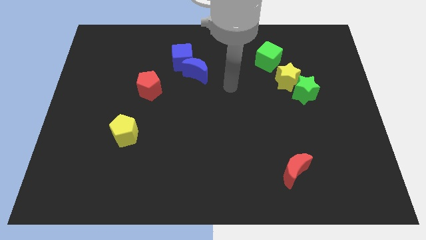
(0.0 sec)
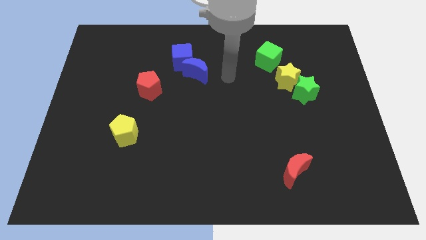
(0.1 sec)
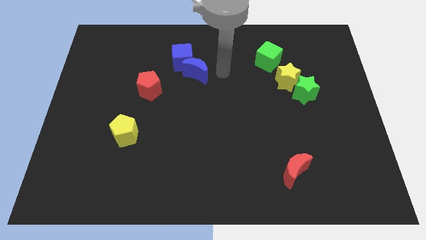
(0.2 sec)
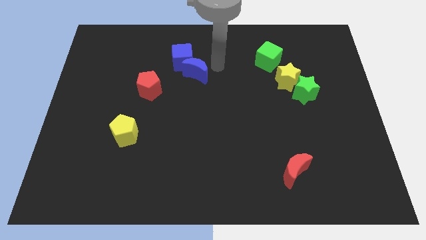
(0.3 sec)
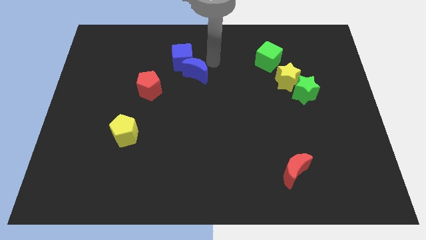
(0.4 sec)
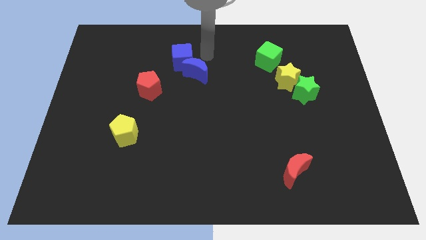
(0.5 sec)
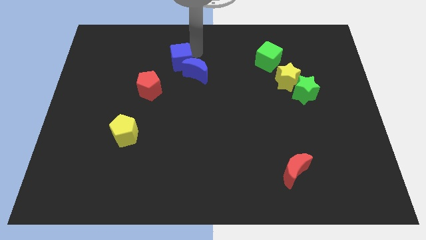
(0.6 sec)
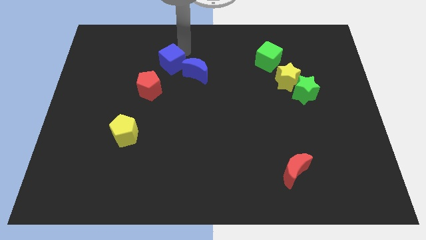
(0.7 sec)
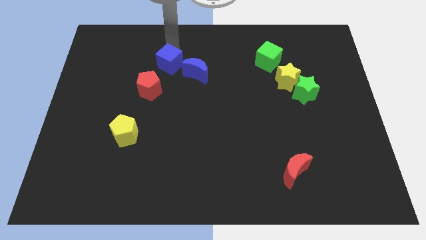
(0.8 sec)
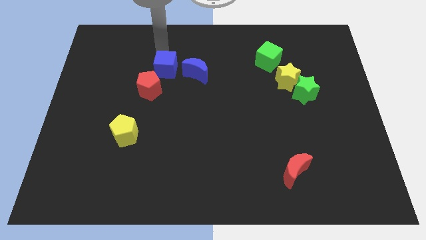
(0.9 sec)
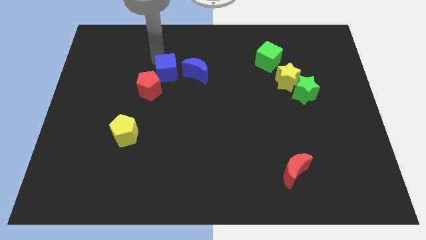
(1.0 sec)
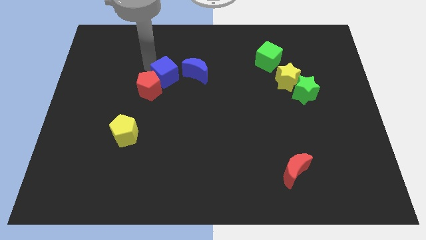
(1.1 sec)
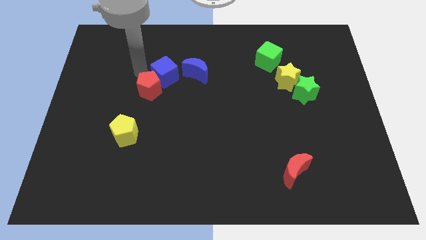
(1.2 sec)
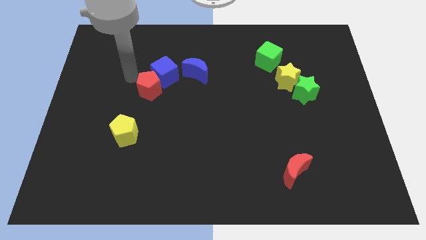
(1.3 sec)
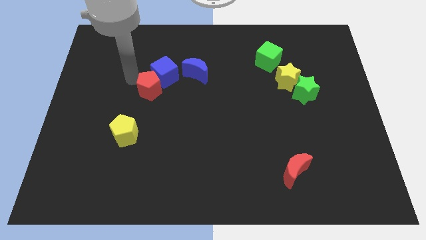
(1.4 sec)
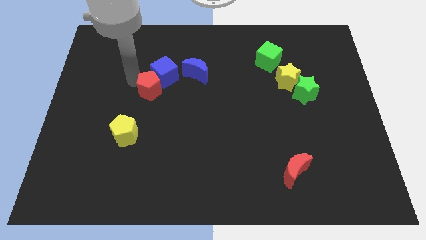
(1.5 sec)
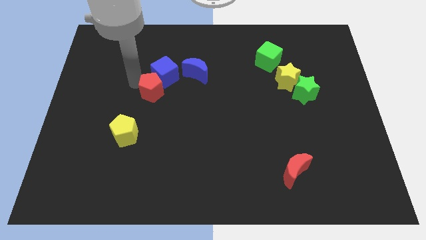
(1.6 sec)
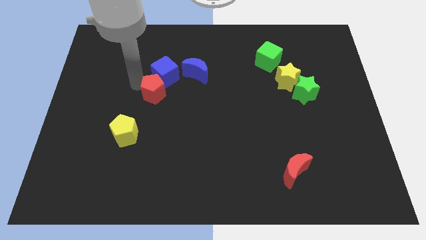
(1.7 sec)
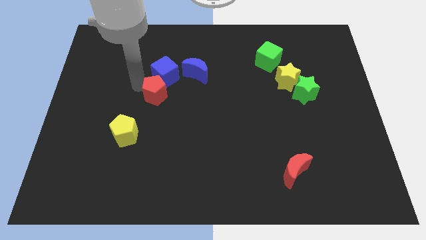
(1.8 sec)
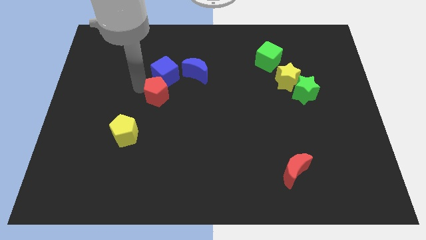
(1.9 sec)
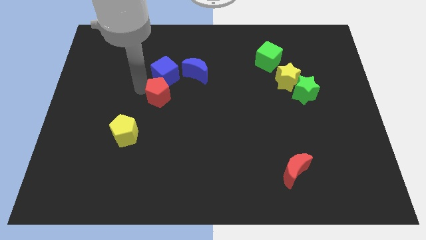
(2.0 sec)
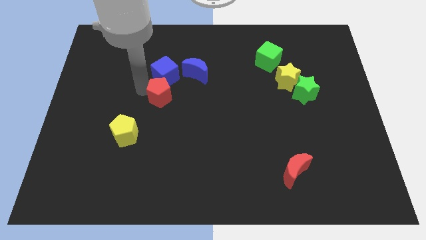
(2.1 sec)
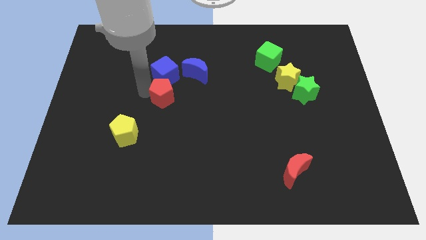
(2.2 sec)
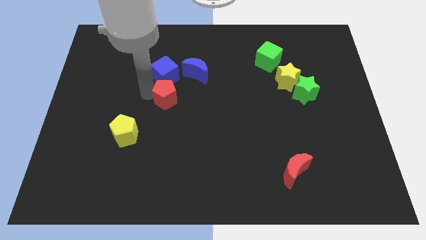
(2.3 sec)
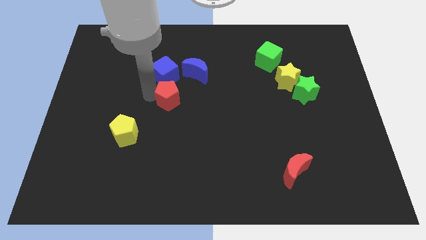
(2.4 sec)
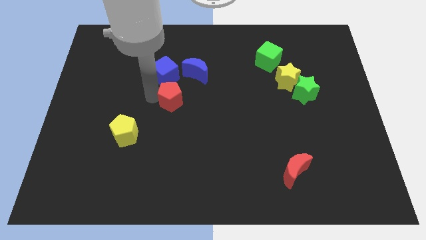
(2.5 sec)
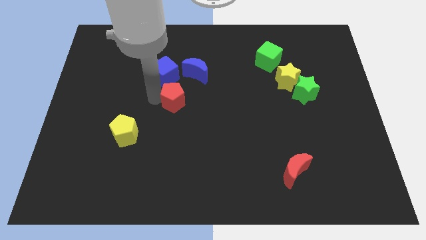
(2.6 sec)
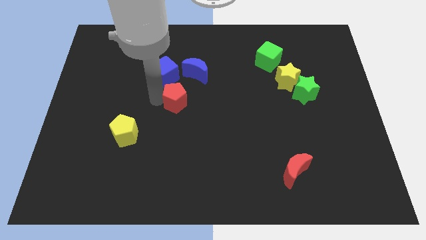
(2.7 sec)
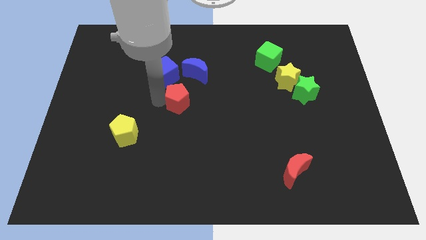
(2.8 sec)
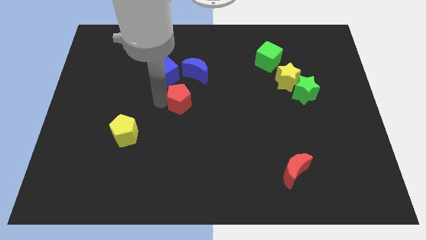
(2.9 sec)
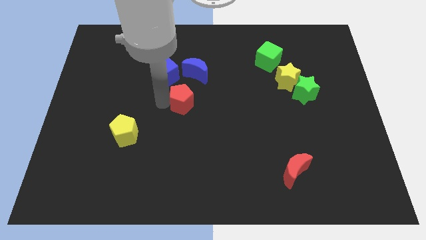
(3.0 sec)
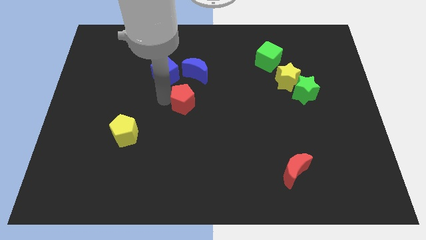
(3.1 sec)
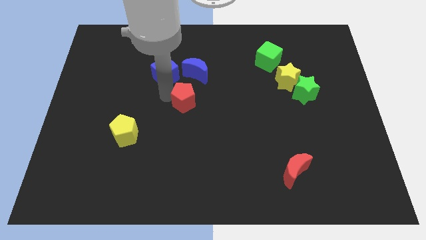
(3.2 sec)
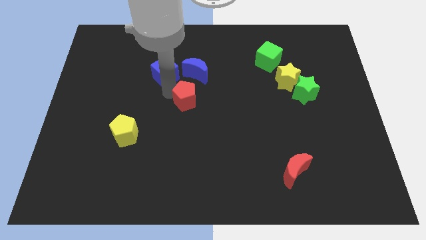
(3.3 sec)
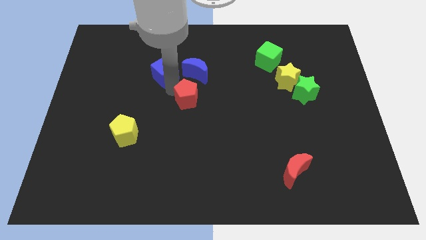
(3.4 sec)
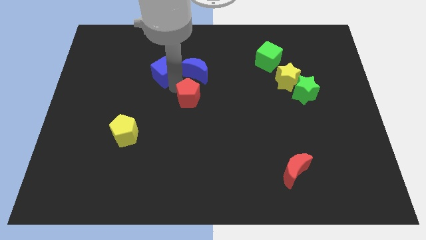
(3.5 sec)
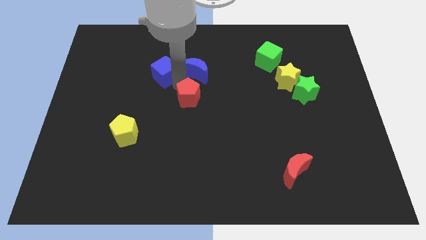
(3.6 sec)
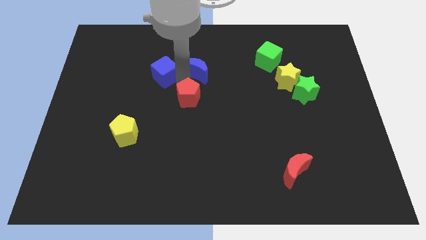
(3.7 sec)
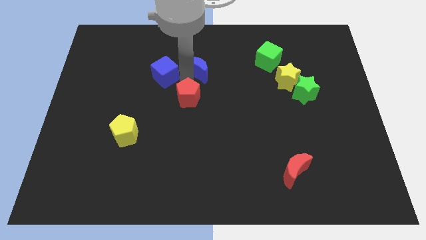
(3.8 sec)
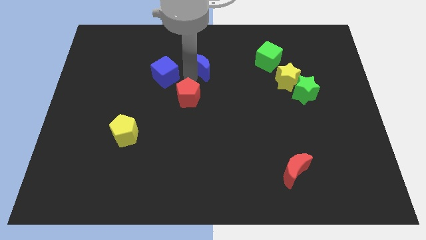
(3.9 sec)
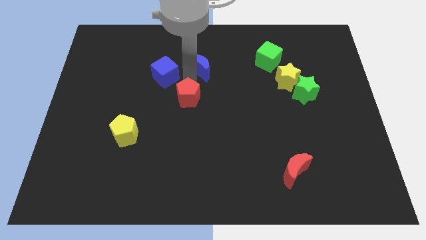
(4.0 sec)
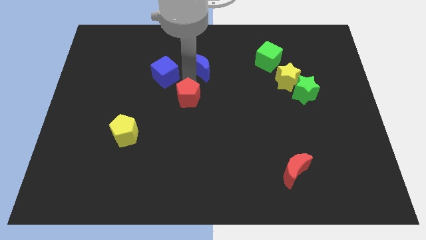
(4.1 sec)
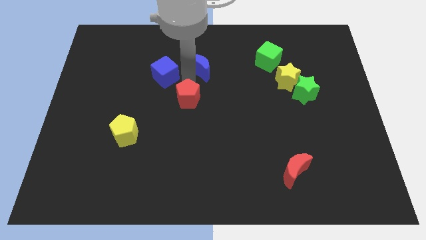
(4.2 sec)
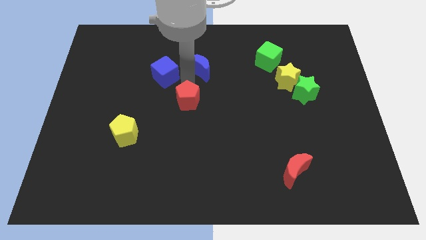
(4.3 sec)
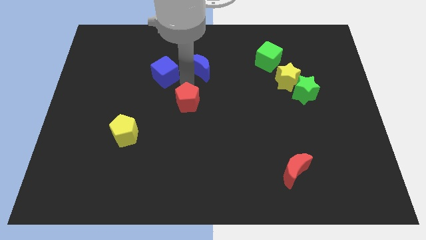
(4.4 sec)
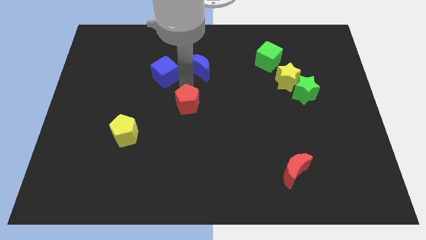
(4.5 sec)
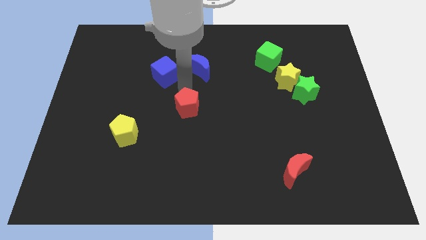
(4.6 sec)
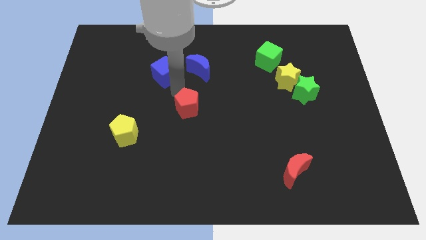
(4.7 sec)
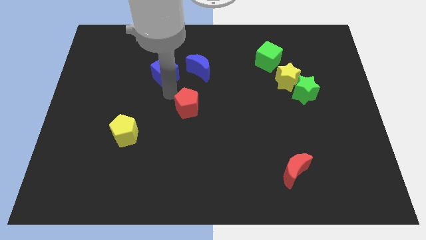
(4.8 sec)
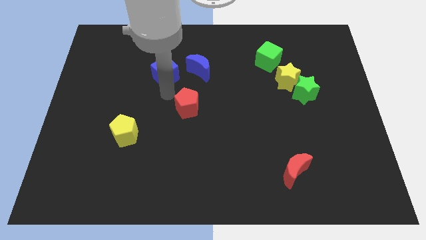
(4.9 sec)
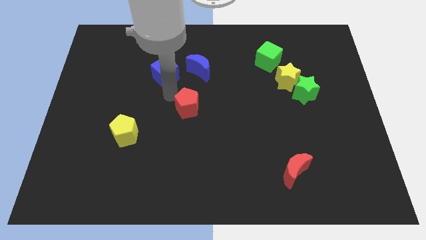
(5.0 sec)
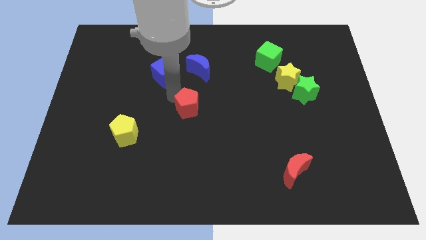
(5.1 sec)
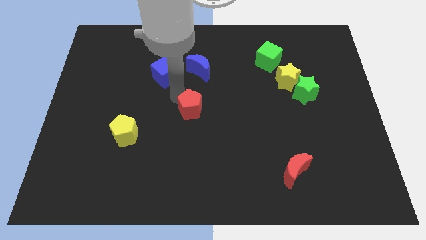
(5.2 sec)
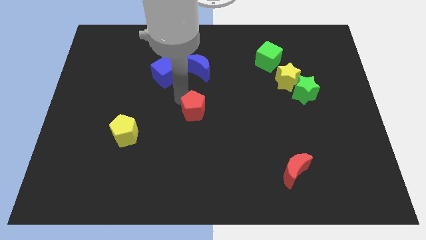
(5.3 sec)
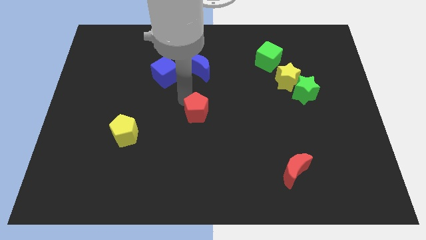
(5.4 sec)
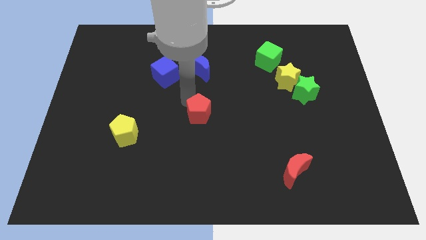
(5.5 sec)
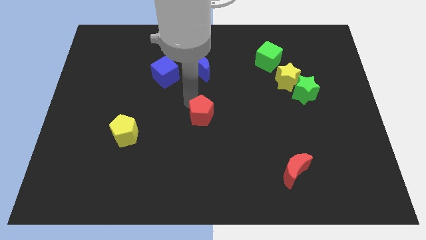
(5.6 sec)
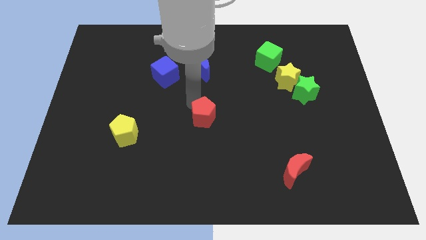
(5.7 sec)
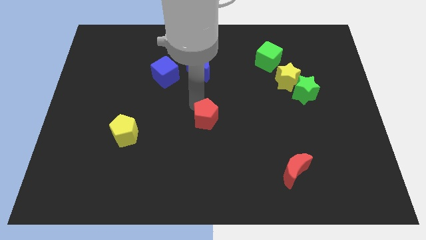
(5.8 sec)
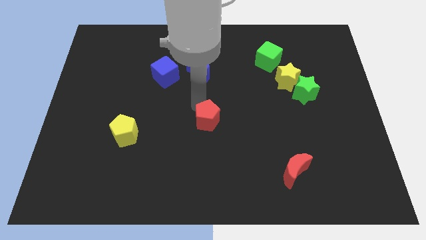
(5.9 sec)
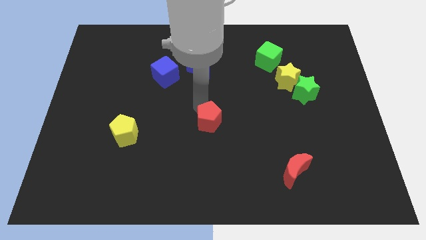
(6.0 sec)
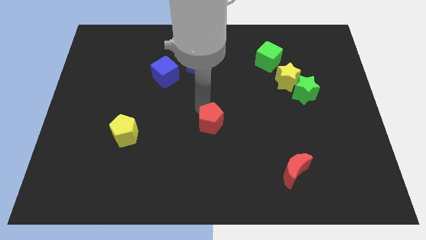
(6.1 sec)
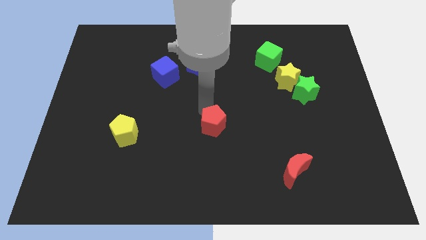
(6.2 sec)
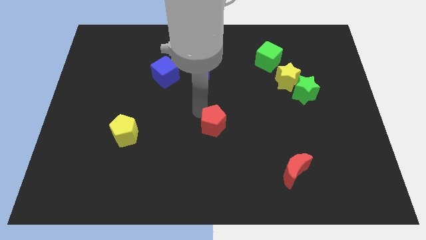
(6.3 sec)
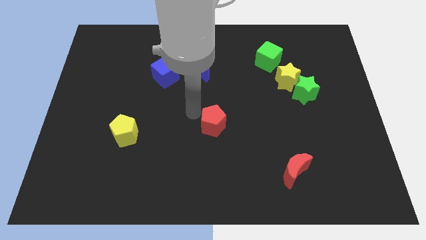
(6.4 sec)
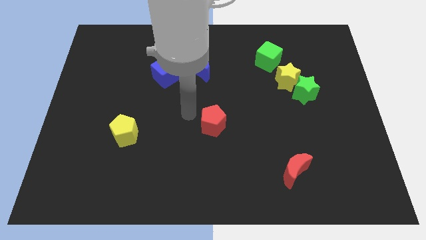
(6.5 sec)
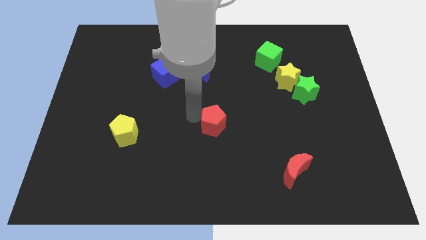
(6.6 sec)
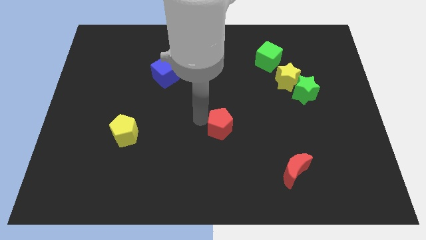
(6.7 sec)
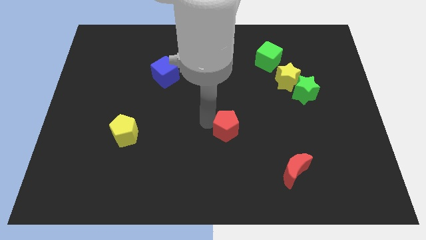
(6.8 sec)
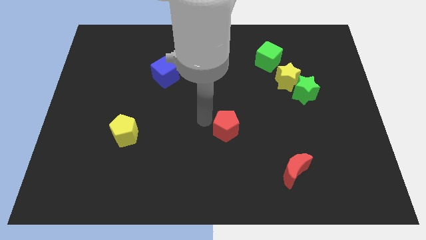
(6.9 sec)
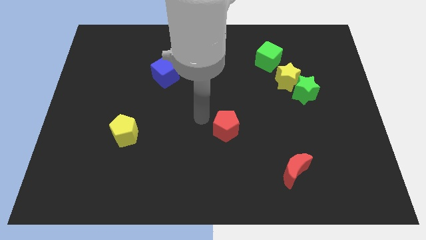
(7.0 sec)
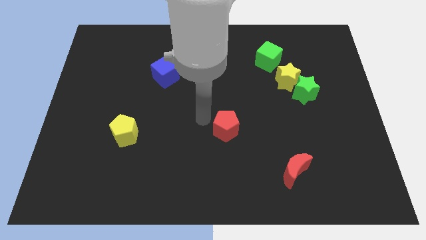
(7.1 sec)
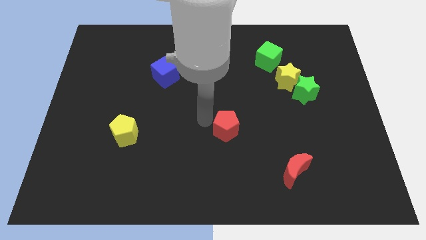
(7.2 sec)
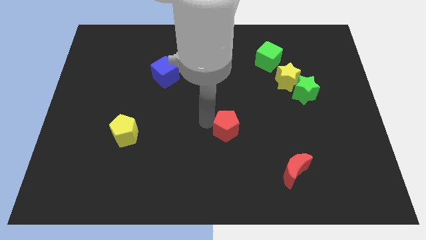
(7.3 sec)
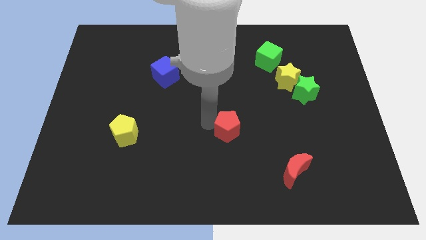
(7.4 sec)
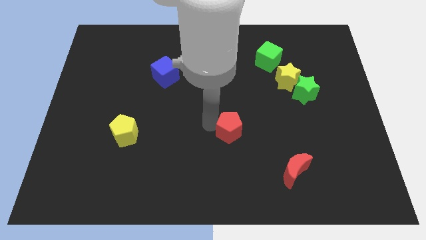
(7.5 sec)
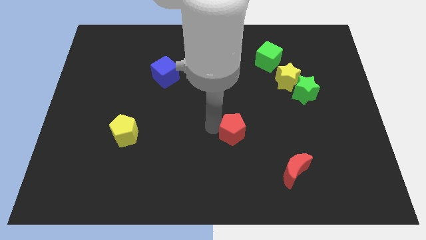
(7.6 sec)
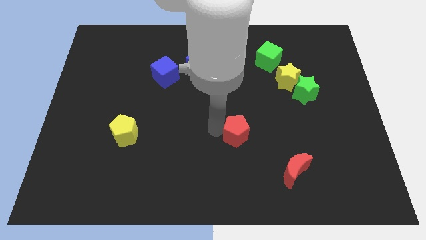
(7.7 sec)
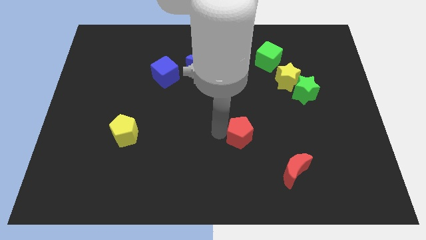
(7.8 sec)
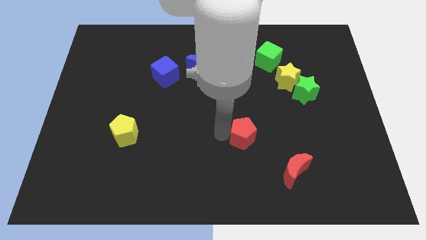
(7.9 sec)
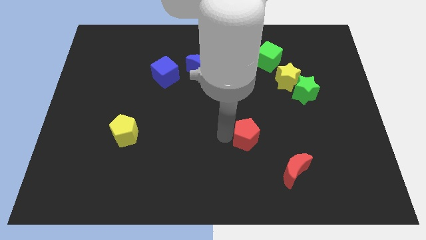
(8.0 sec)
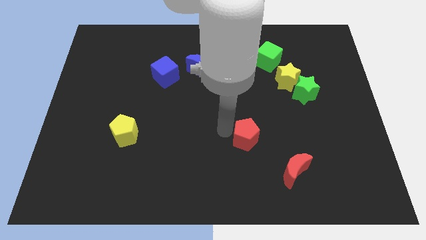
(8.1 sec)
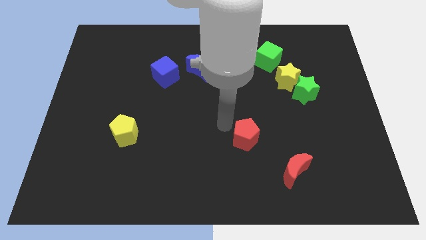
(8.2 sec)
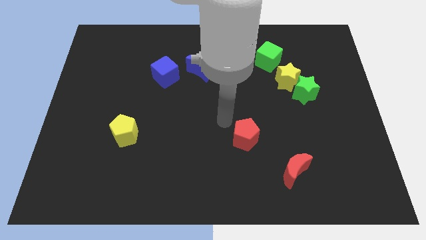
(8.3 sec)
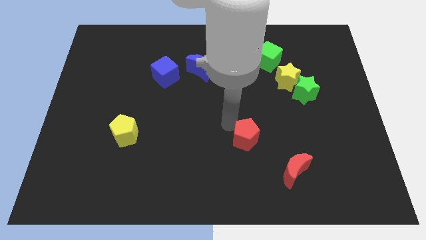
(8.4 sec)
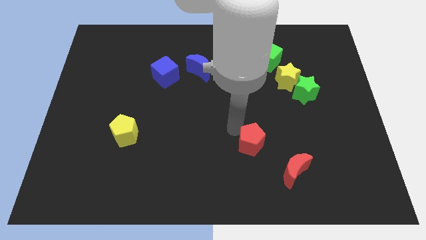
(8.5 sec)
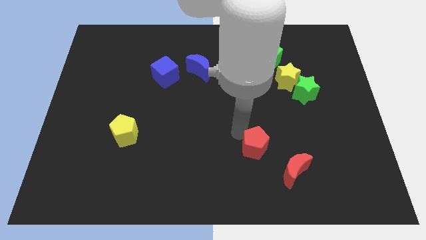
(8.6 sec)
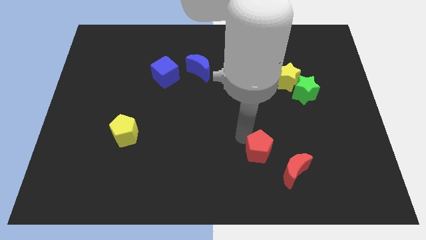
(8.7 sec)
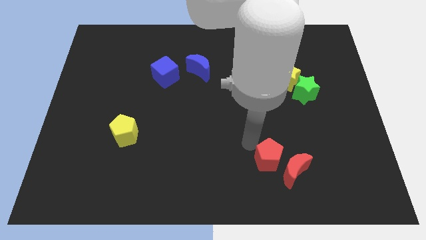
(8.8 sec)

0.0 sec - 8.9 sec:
move the red pentagon towards the red moon
